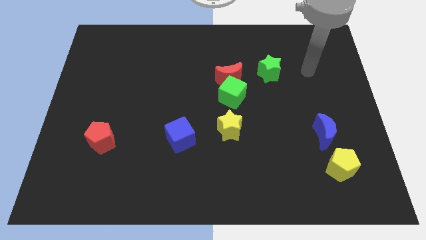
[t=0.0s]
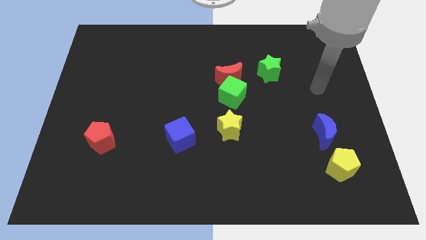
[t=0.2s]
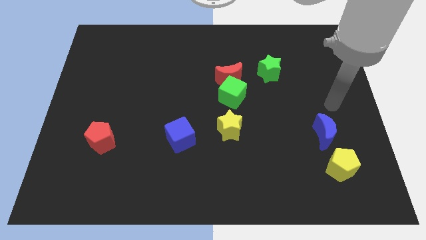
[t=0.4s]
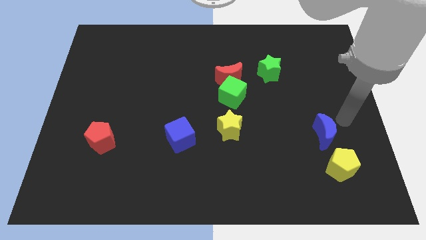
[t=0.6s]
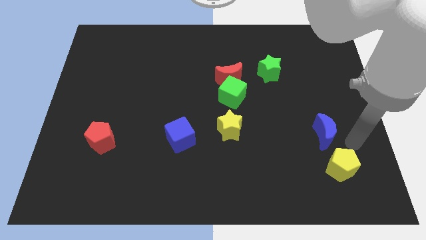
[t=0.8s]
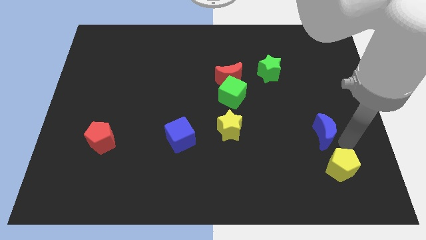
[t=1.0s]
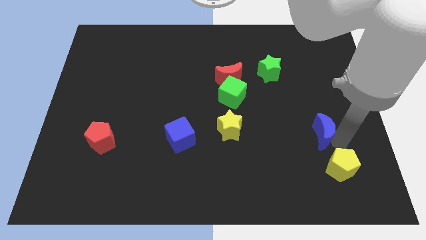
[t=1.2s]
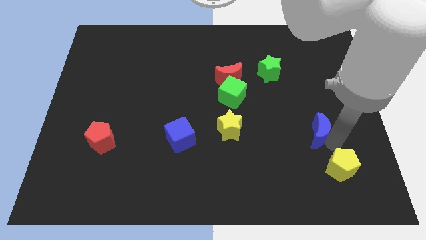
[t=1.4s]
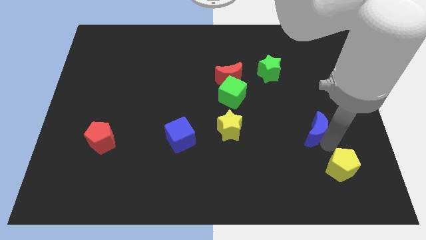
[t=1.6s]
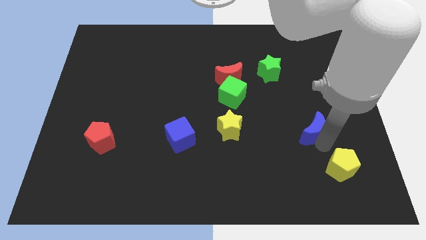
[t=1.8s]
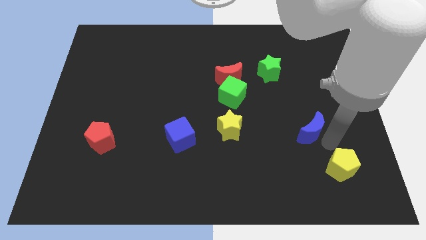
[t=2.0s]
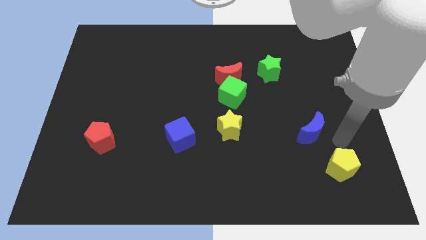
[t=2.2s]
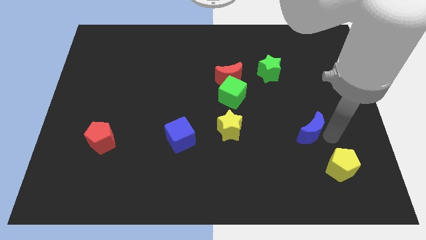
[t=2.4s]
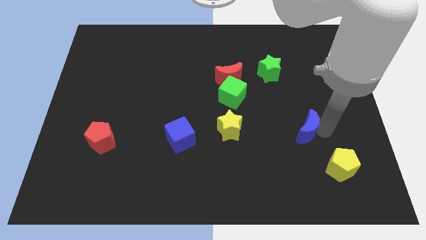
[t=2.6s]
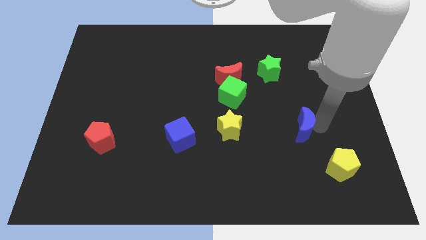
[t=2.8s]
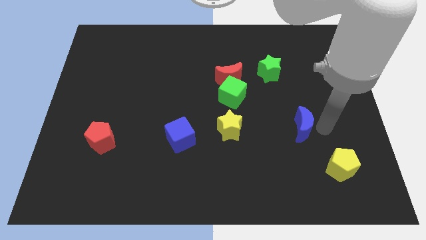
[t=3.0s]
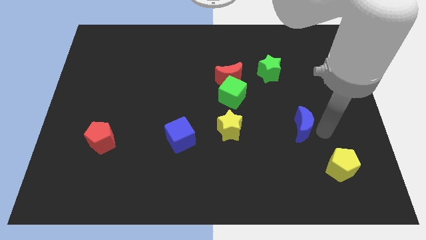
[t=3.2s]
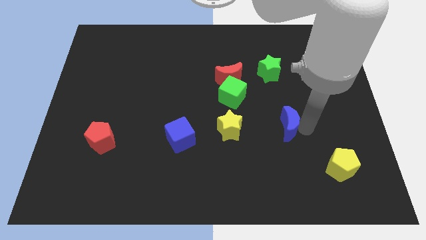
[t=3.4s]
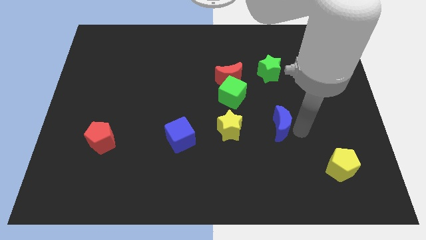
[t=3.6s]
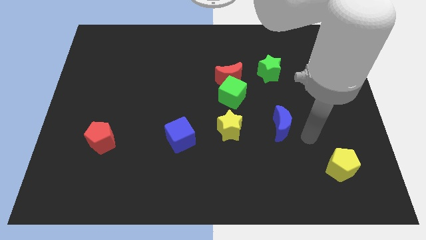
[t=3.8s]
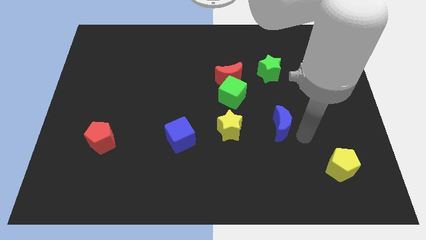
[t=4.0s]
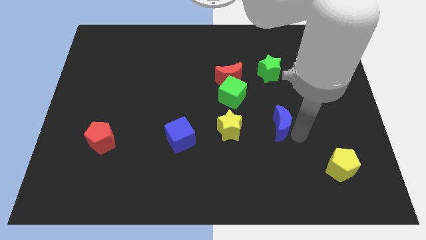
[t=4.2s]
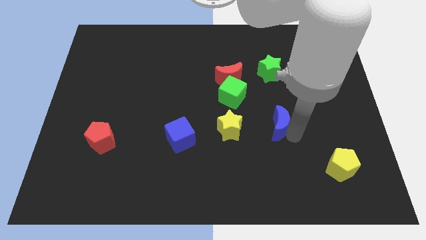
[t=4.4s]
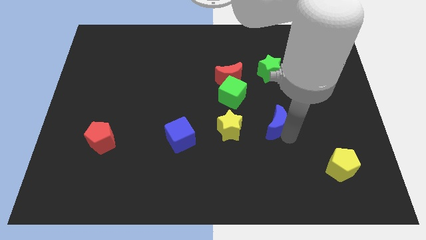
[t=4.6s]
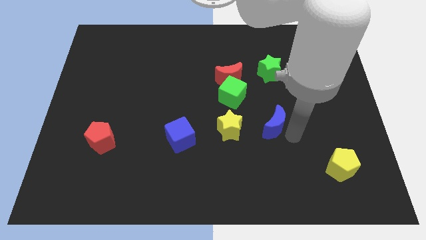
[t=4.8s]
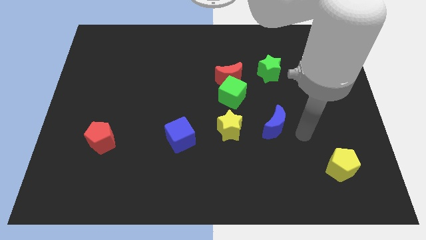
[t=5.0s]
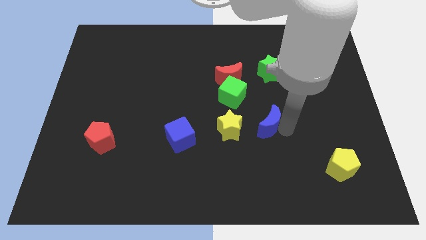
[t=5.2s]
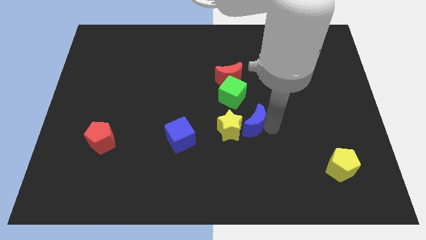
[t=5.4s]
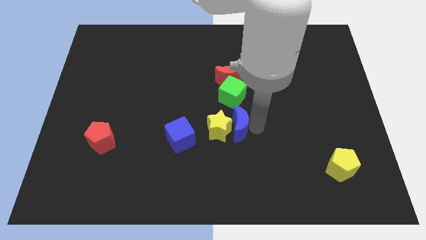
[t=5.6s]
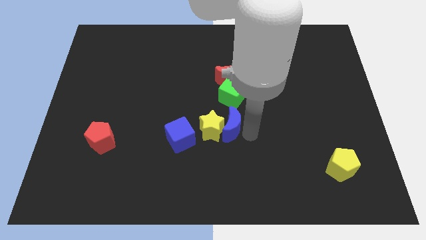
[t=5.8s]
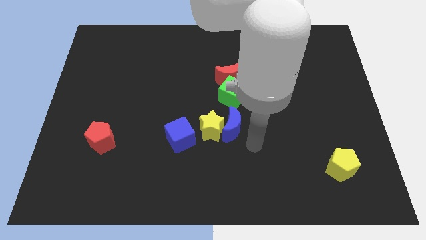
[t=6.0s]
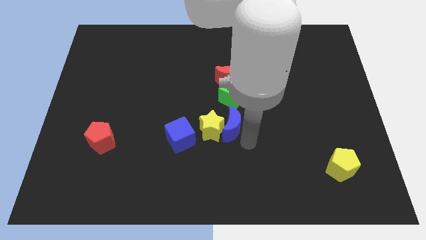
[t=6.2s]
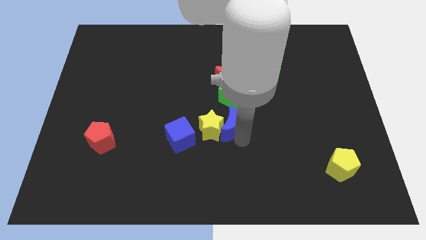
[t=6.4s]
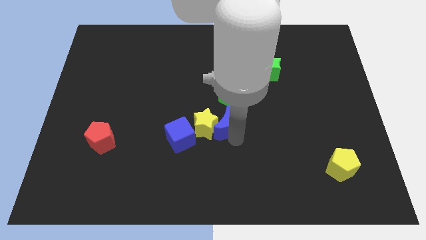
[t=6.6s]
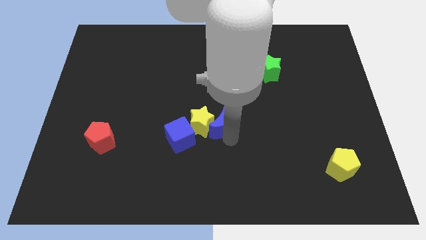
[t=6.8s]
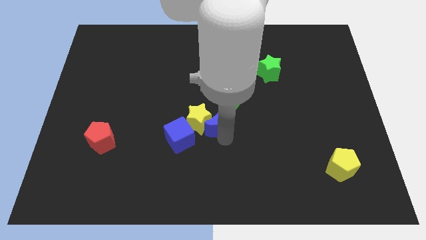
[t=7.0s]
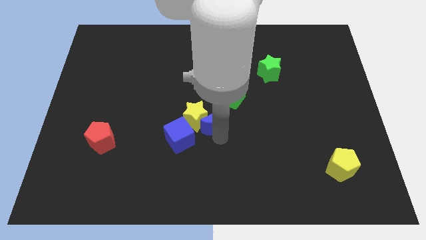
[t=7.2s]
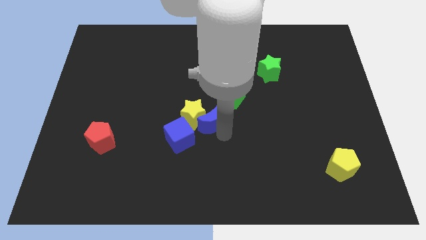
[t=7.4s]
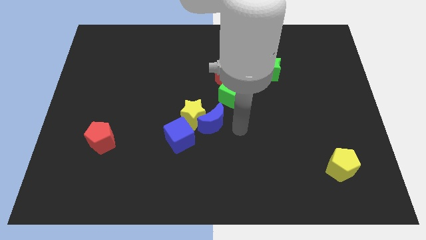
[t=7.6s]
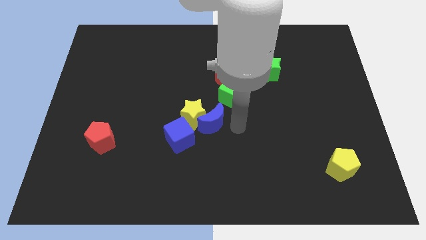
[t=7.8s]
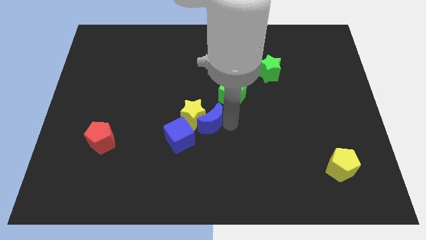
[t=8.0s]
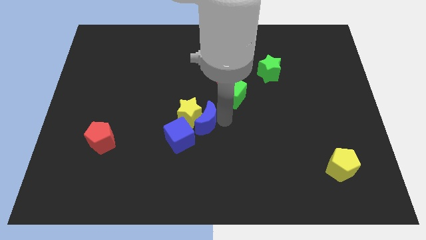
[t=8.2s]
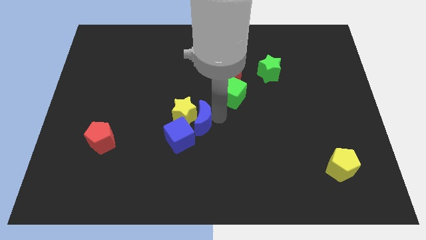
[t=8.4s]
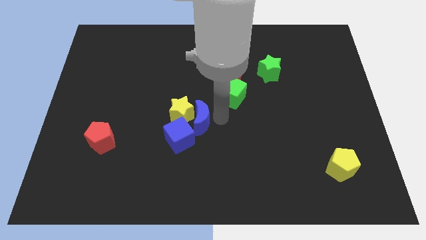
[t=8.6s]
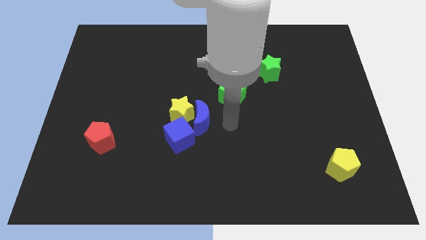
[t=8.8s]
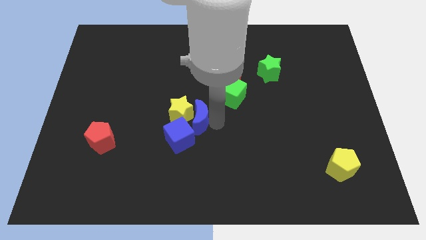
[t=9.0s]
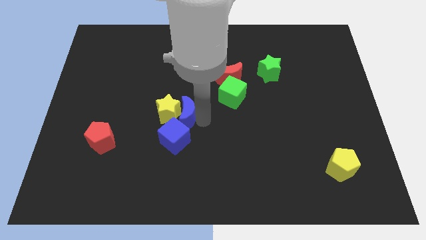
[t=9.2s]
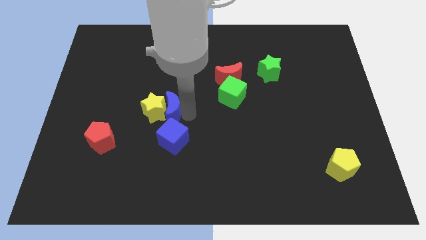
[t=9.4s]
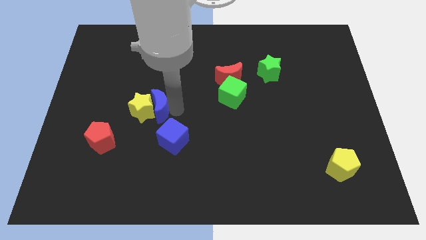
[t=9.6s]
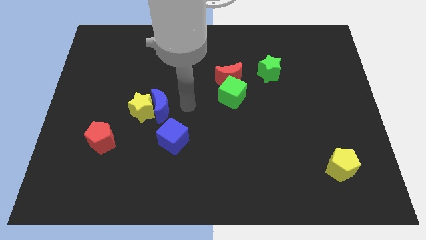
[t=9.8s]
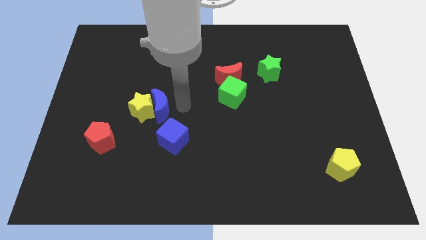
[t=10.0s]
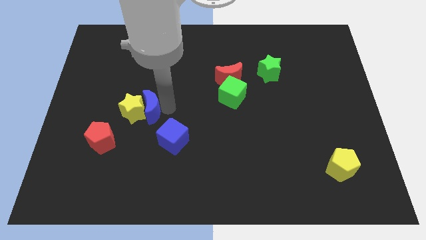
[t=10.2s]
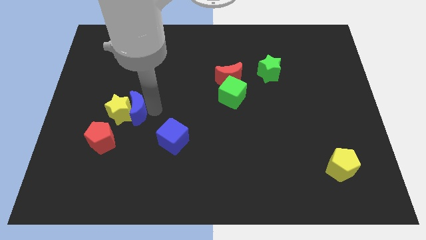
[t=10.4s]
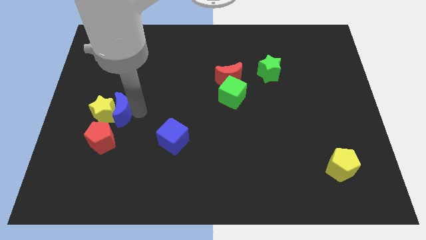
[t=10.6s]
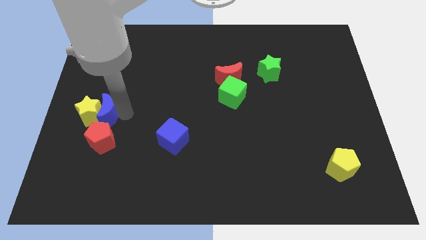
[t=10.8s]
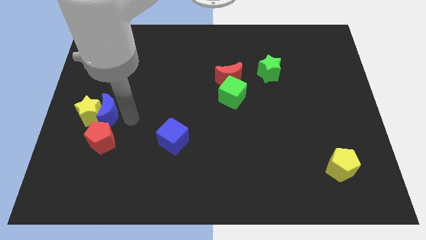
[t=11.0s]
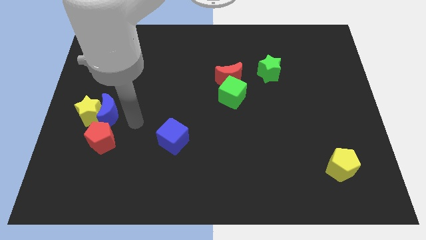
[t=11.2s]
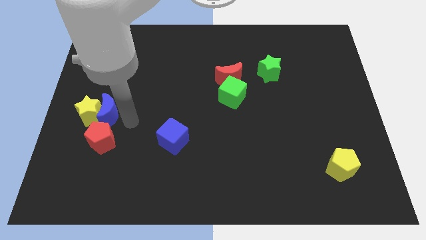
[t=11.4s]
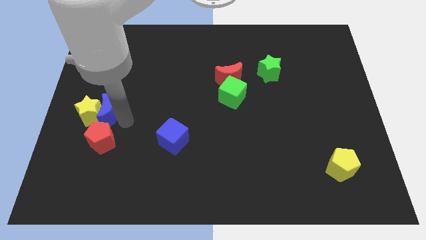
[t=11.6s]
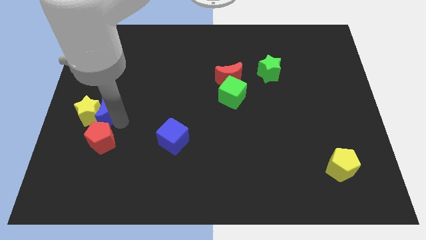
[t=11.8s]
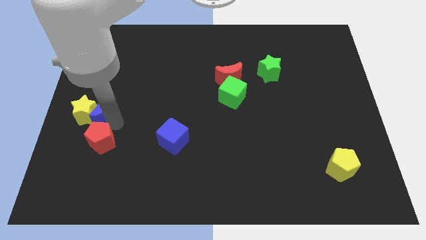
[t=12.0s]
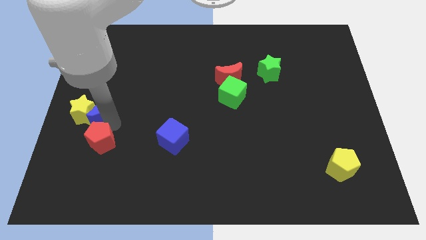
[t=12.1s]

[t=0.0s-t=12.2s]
push the blue moon to the center left
